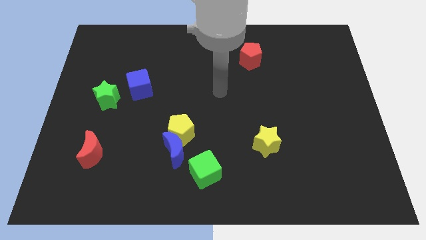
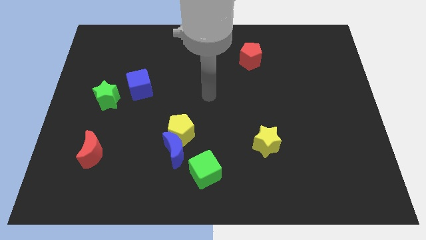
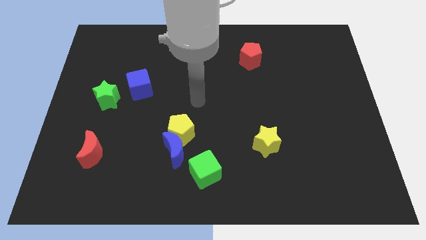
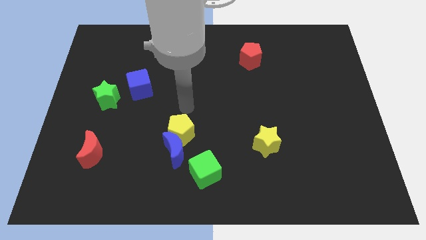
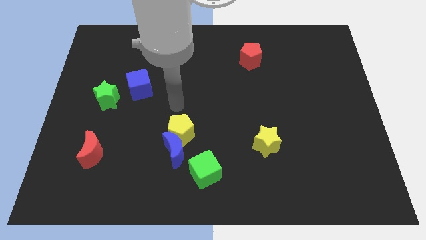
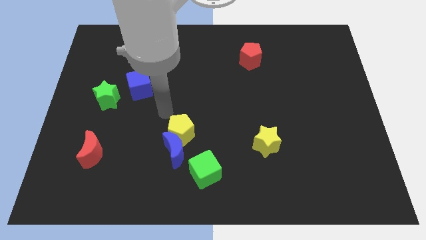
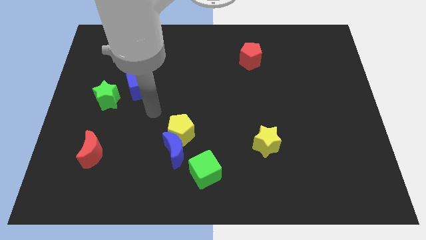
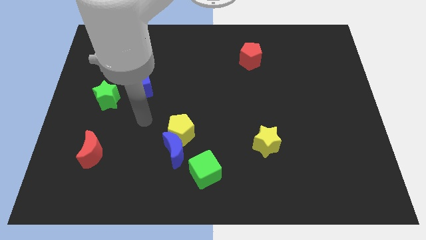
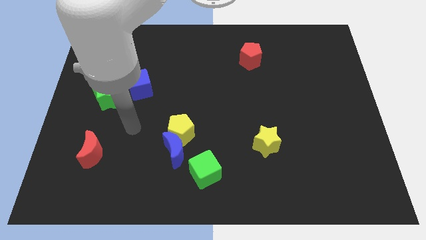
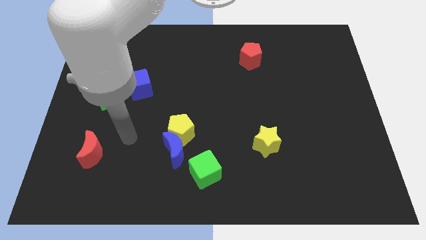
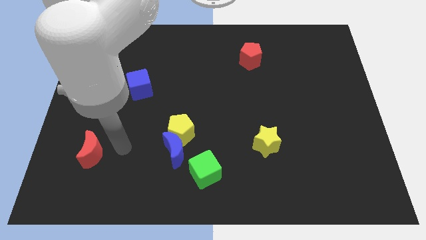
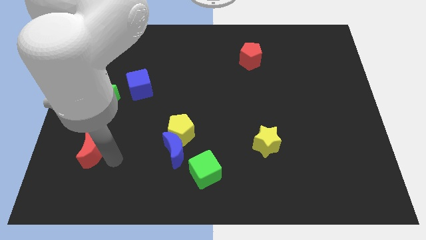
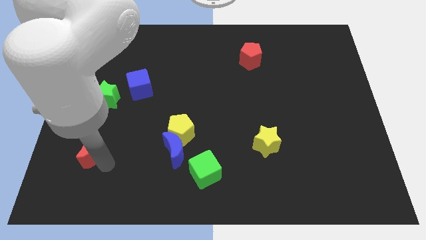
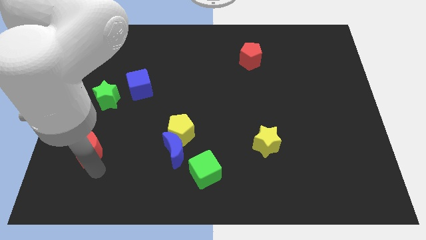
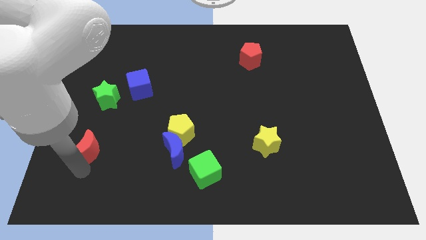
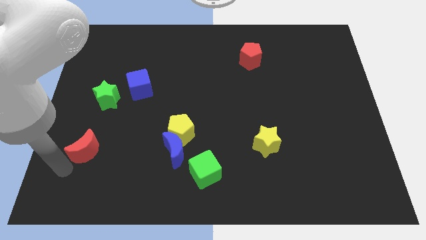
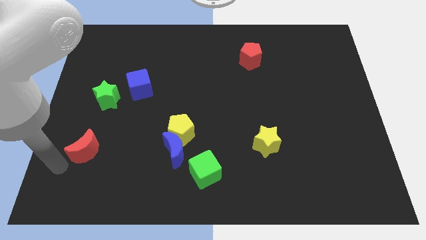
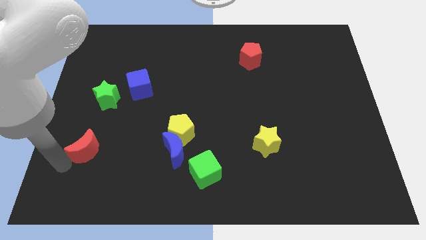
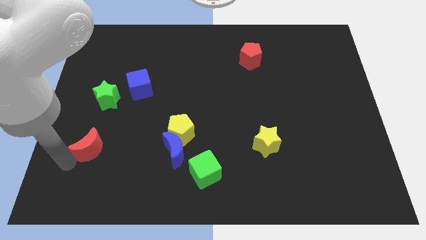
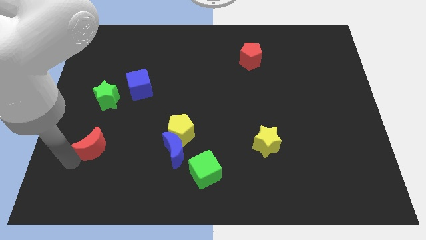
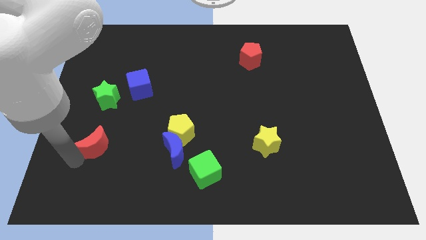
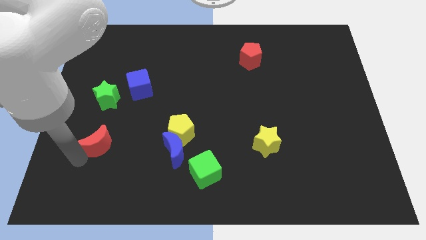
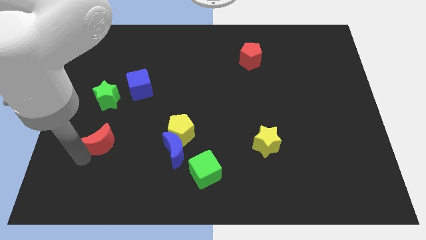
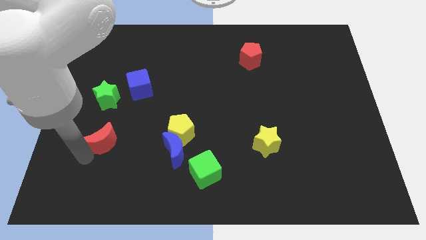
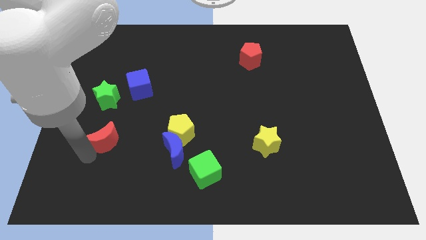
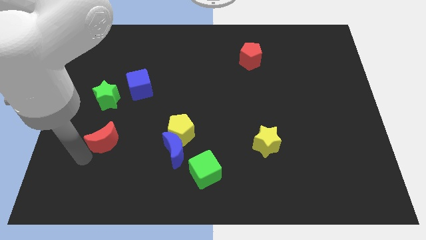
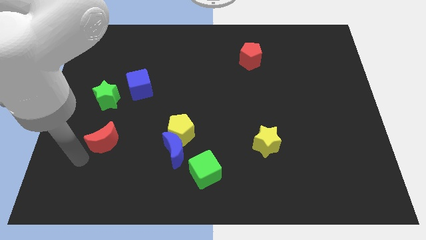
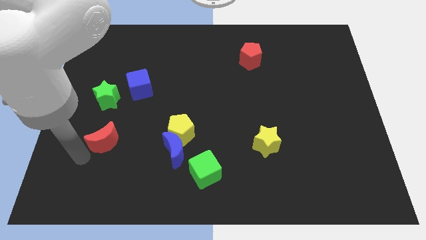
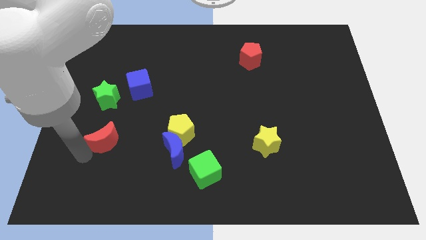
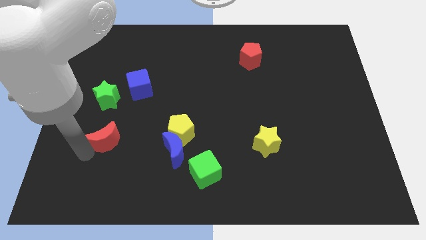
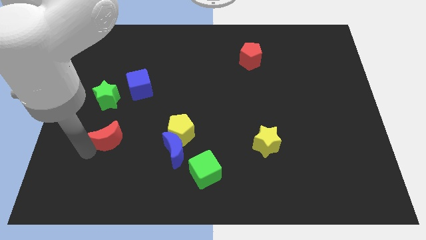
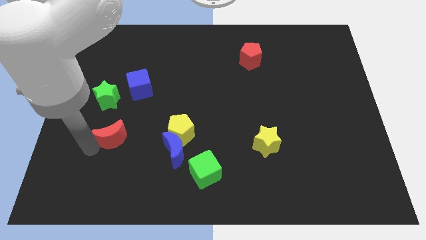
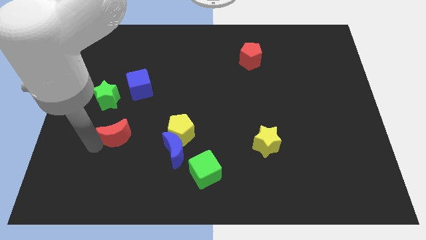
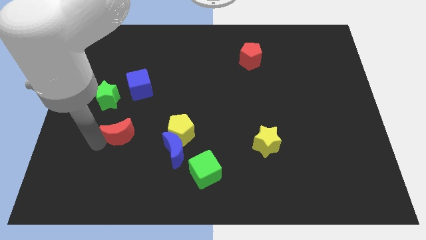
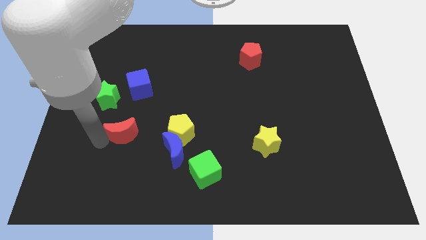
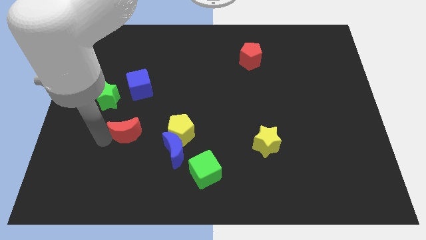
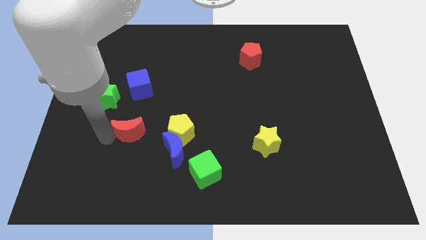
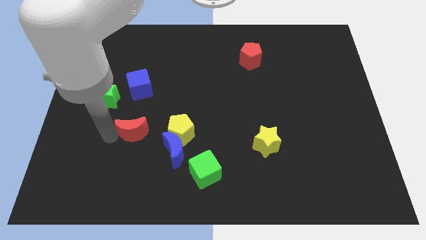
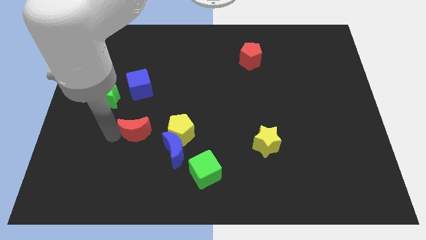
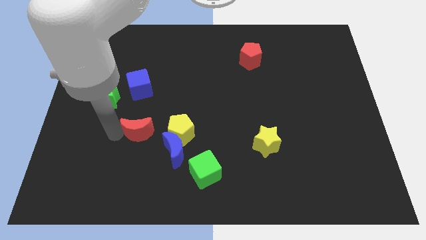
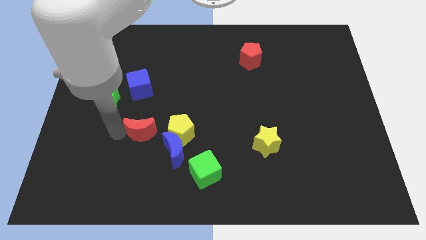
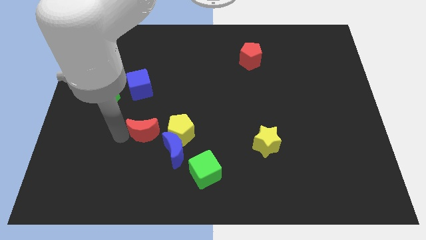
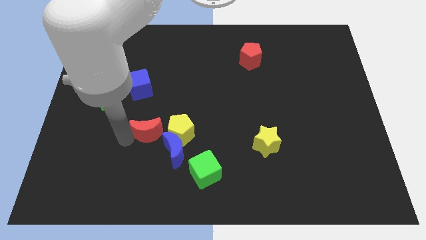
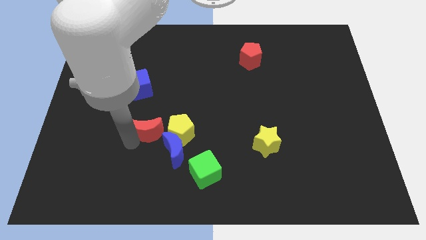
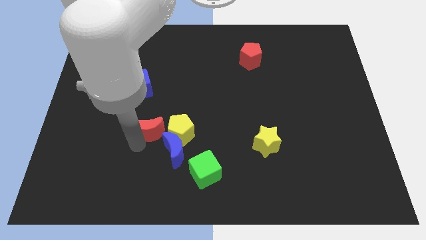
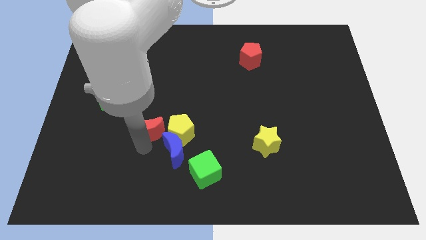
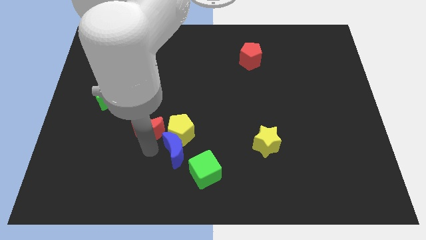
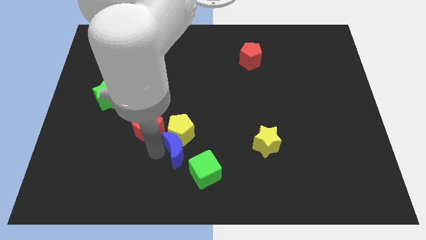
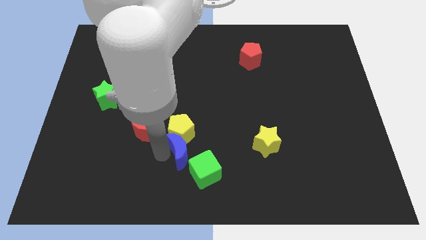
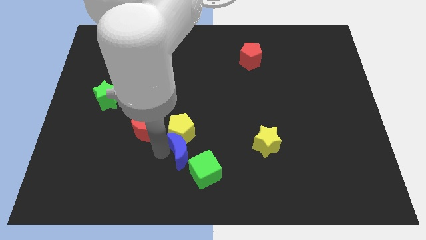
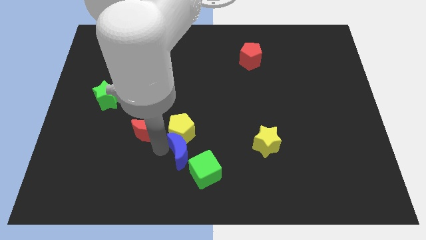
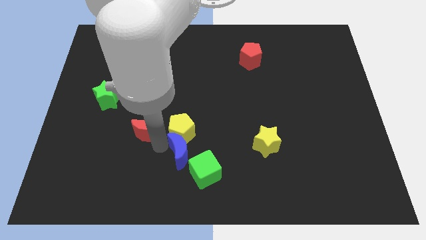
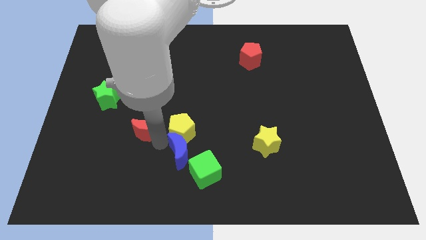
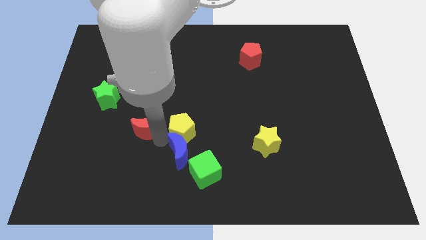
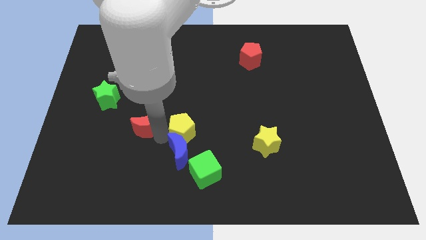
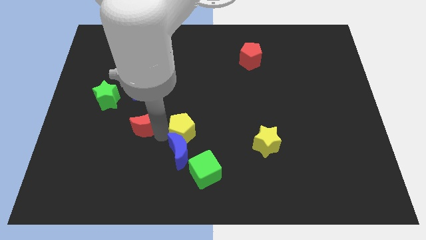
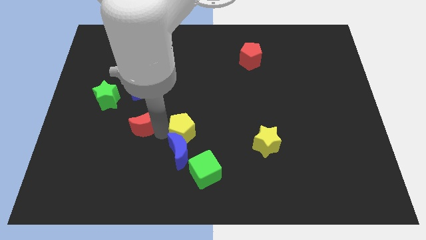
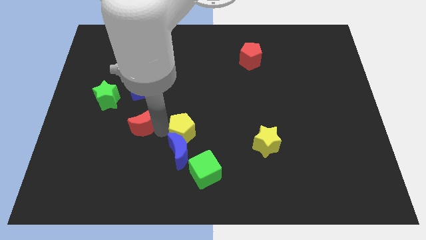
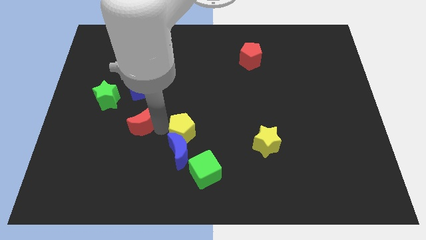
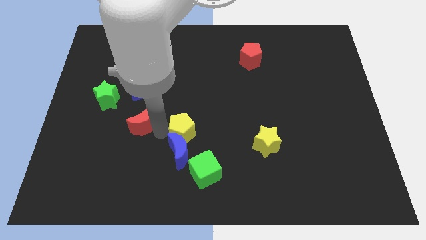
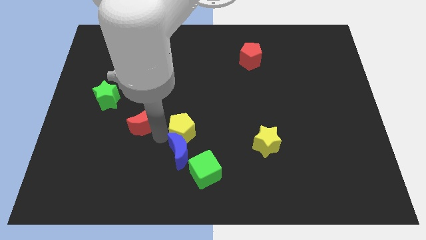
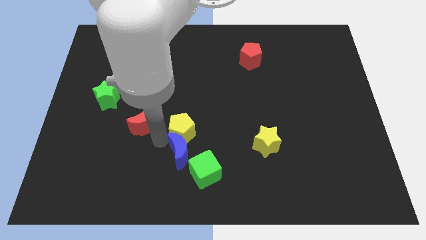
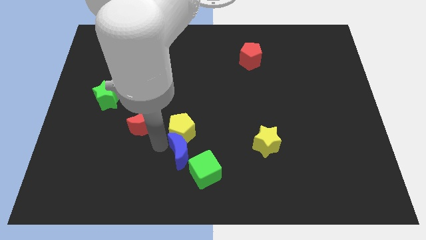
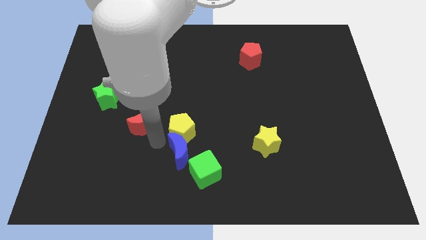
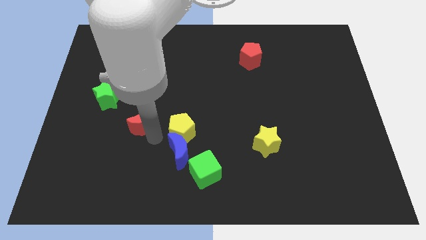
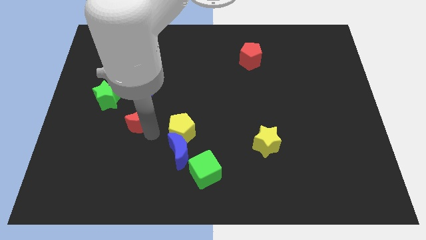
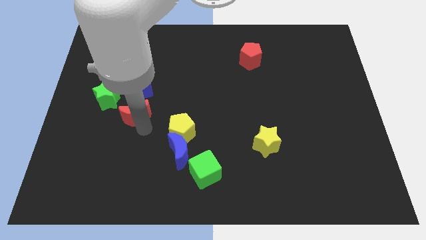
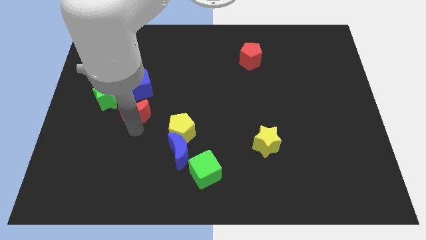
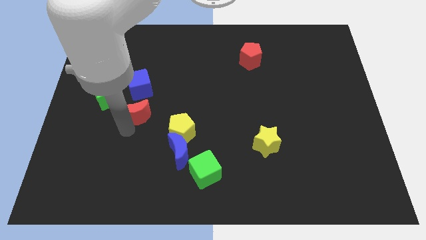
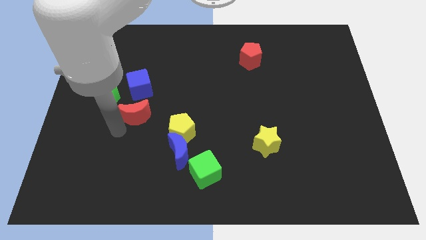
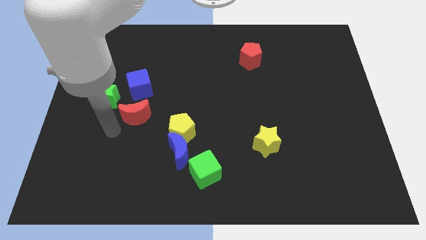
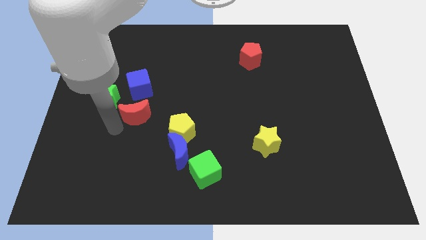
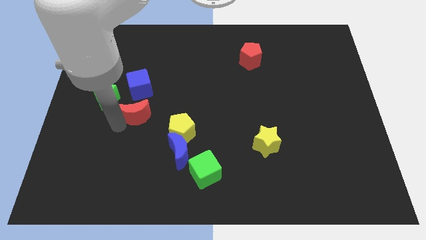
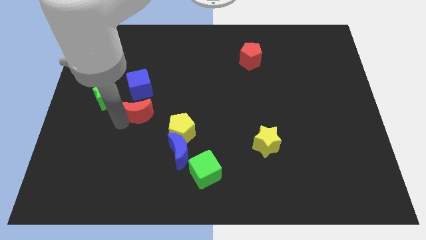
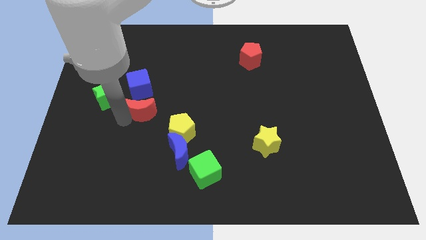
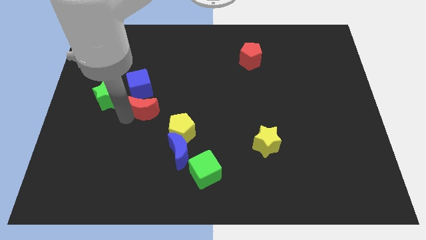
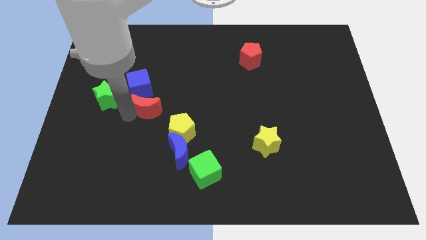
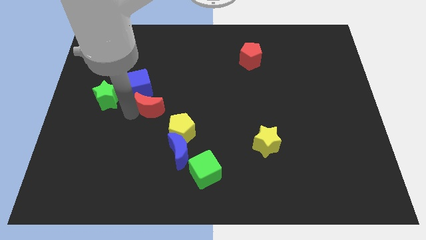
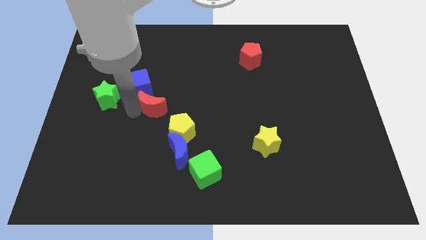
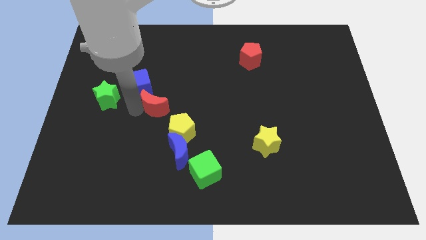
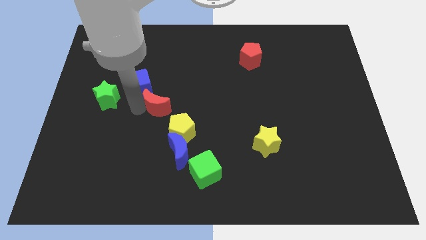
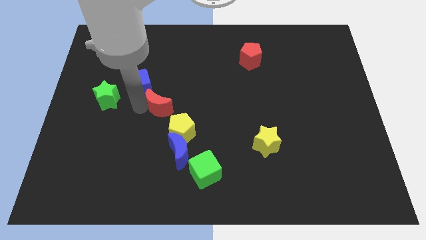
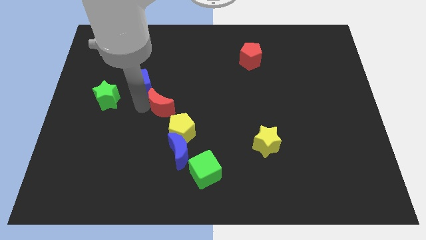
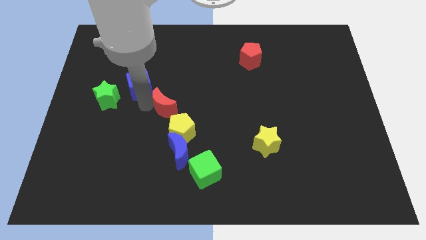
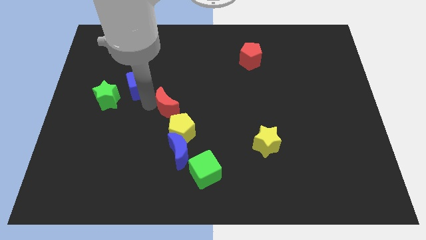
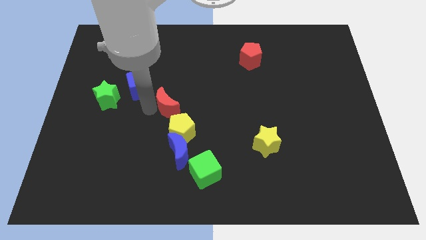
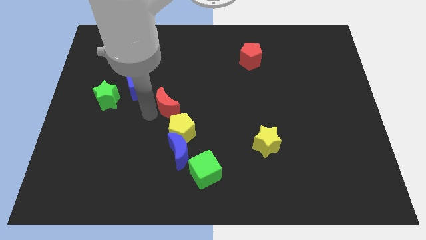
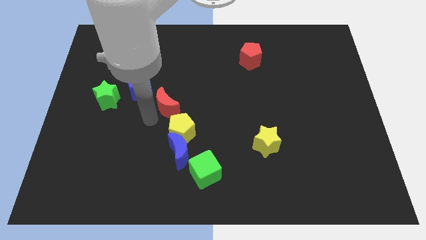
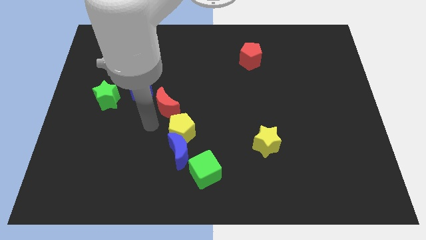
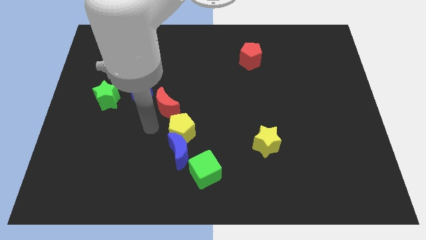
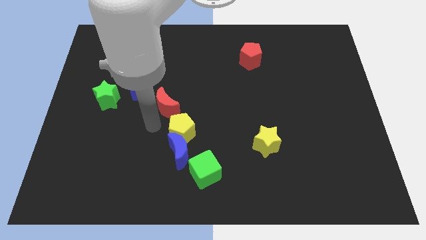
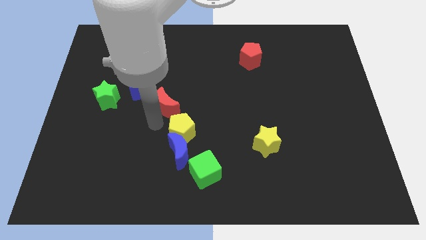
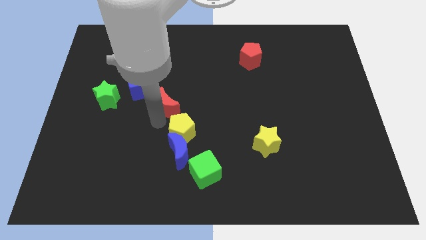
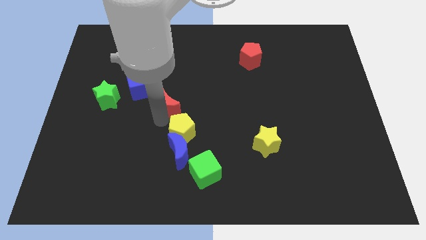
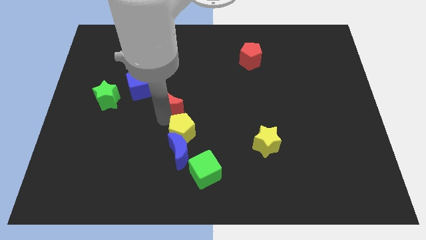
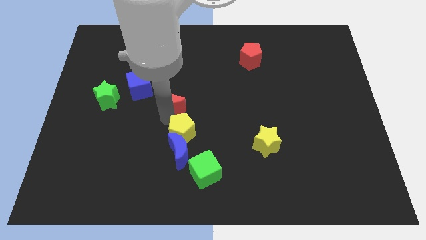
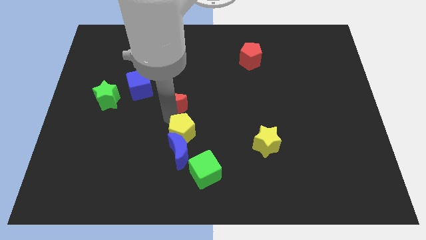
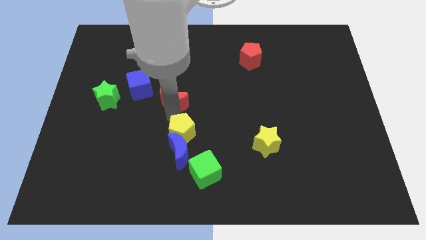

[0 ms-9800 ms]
move the red moon to the right of the blue cube
